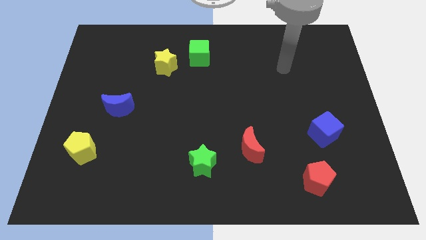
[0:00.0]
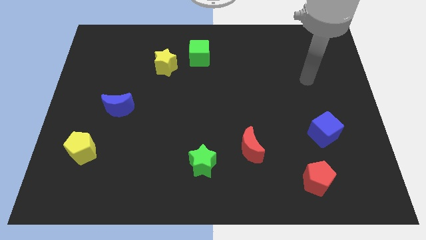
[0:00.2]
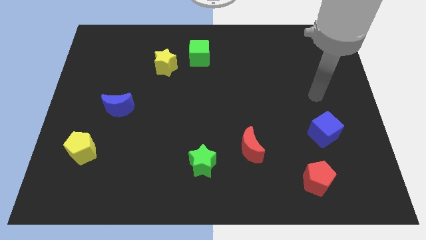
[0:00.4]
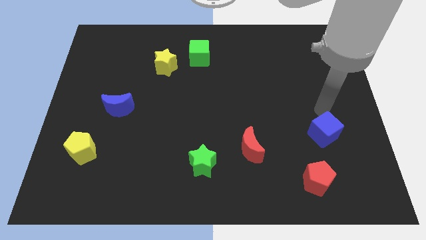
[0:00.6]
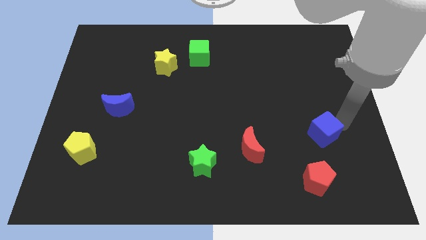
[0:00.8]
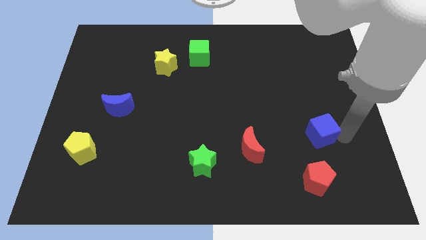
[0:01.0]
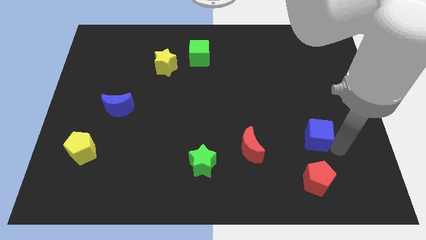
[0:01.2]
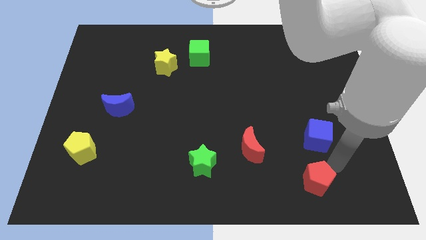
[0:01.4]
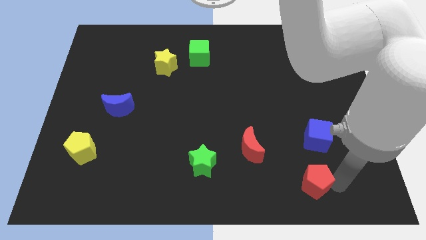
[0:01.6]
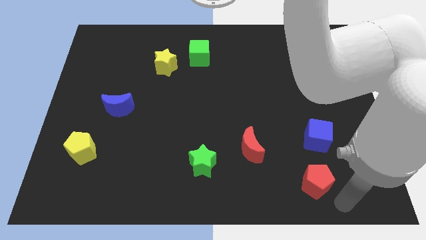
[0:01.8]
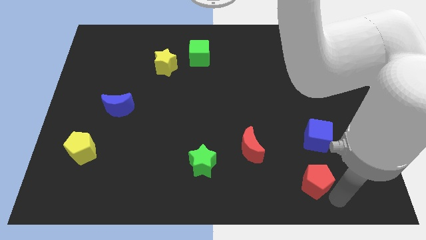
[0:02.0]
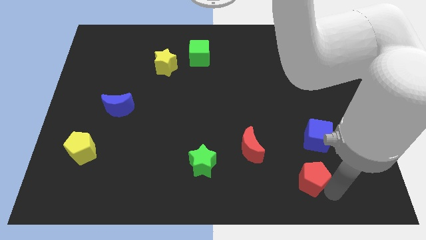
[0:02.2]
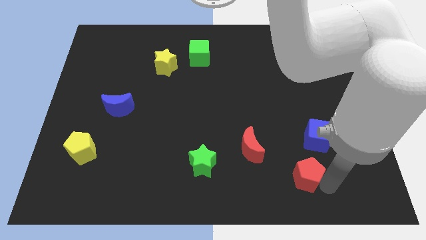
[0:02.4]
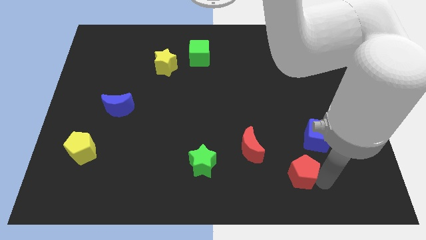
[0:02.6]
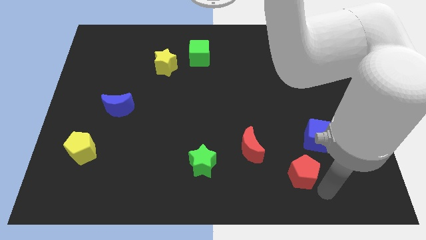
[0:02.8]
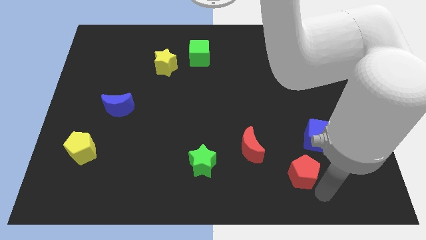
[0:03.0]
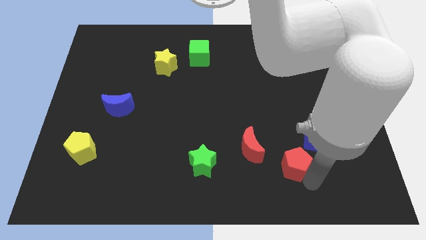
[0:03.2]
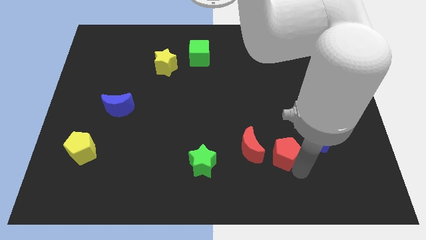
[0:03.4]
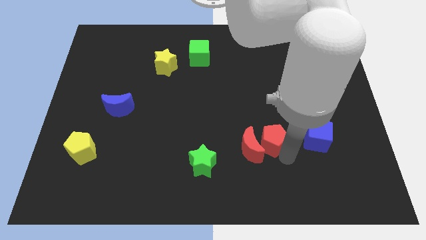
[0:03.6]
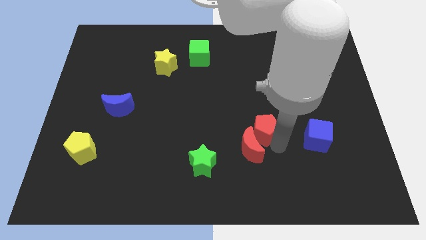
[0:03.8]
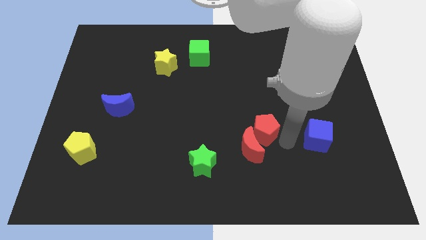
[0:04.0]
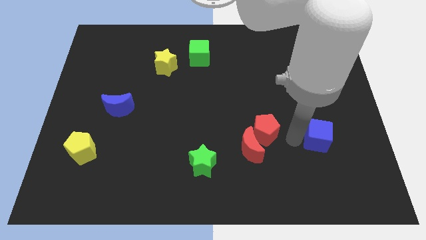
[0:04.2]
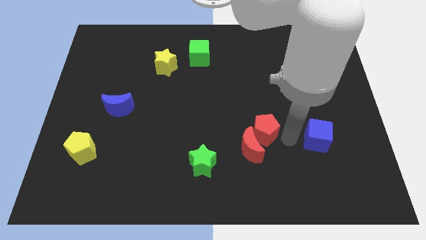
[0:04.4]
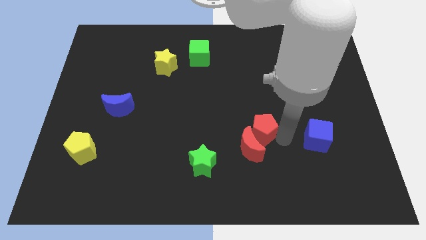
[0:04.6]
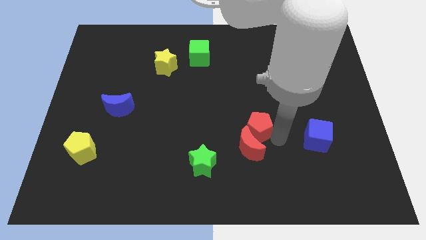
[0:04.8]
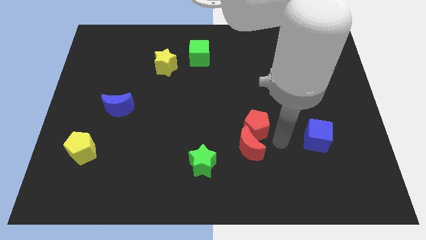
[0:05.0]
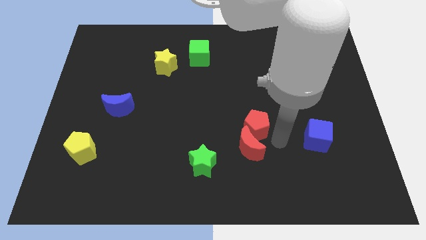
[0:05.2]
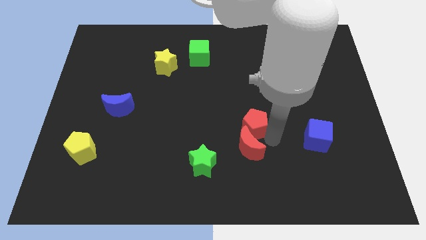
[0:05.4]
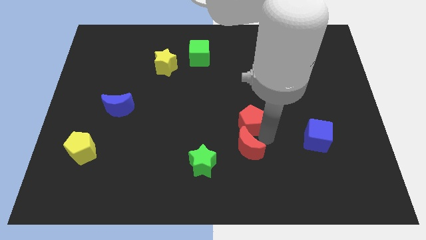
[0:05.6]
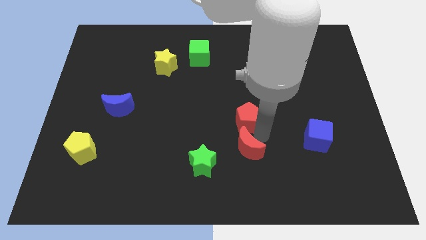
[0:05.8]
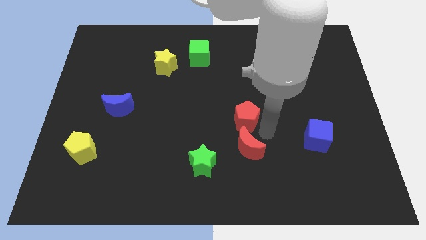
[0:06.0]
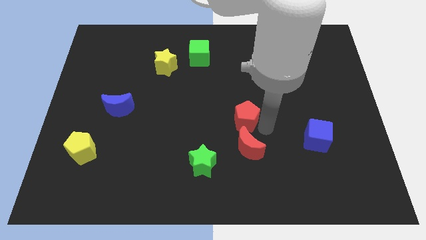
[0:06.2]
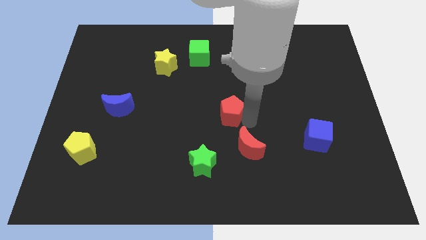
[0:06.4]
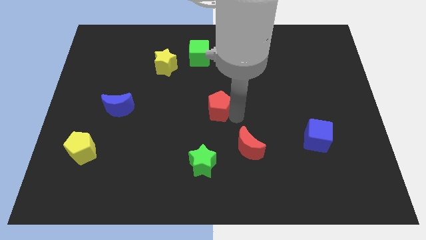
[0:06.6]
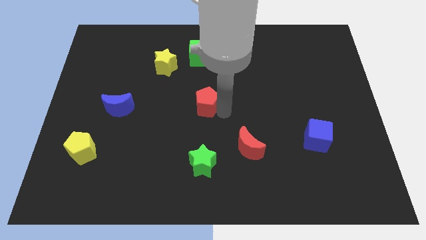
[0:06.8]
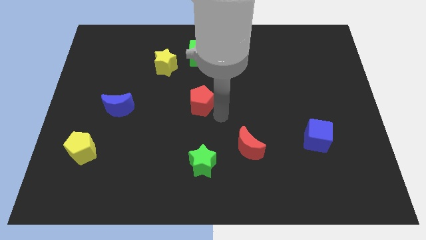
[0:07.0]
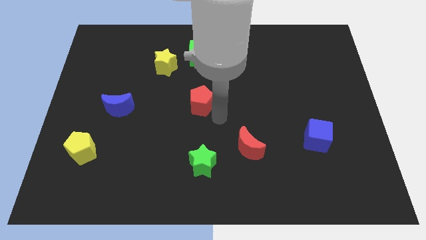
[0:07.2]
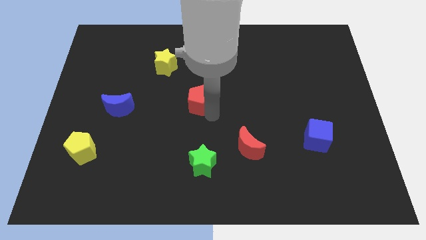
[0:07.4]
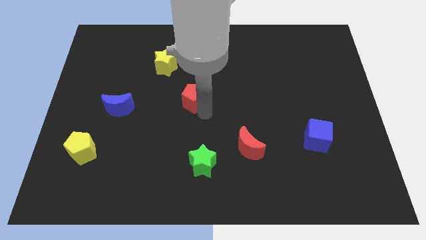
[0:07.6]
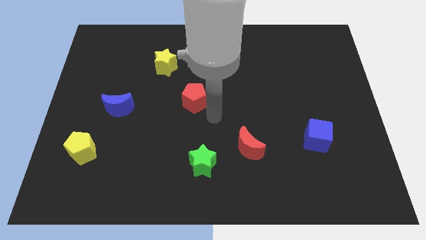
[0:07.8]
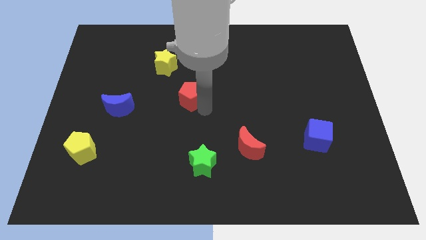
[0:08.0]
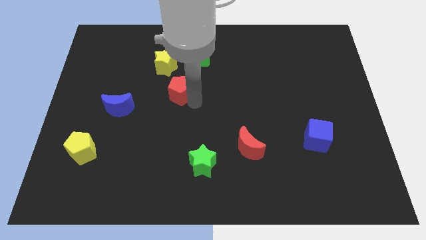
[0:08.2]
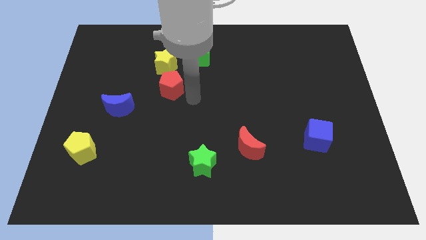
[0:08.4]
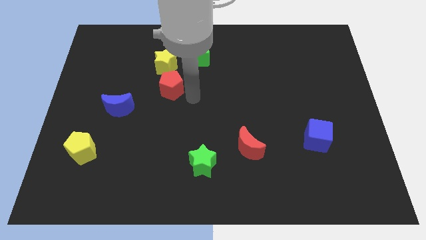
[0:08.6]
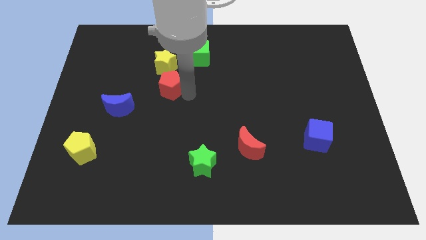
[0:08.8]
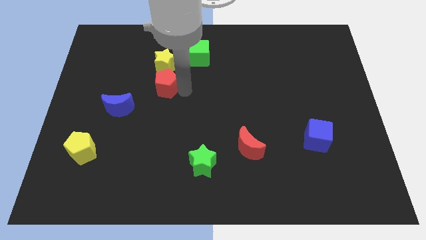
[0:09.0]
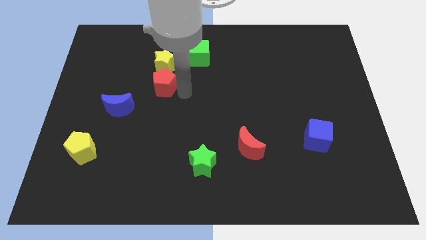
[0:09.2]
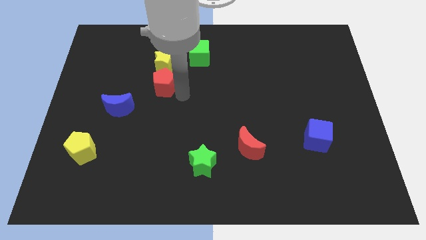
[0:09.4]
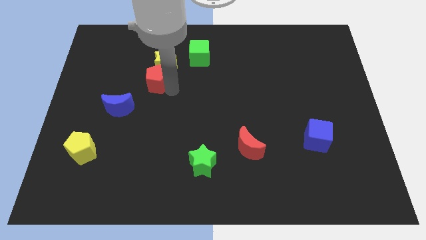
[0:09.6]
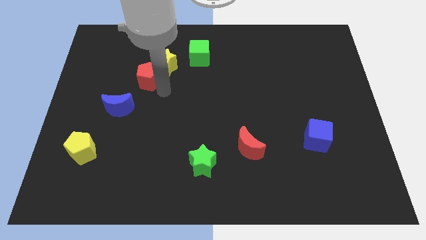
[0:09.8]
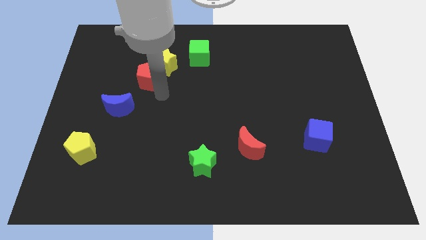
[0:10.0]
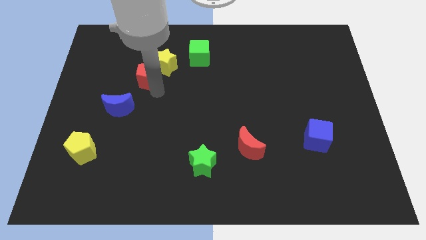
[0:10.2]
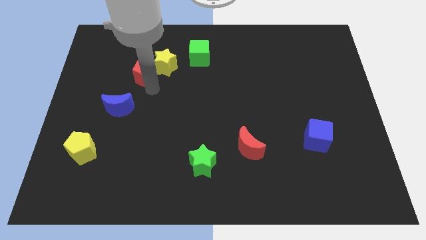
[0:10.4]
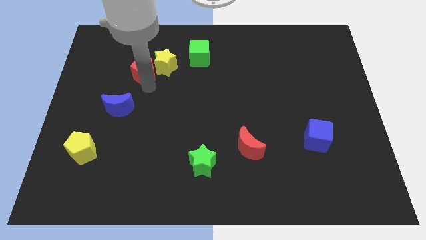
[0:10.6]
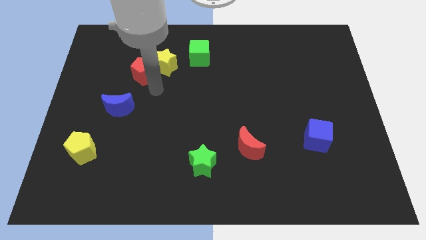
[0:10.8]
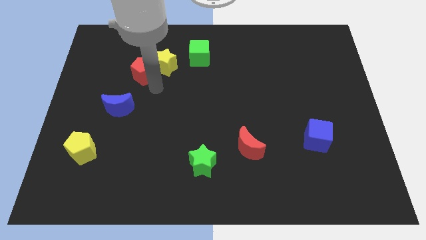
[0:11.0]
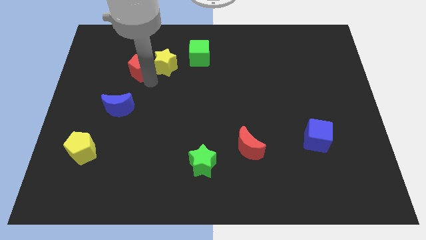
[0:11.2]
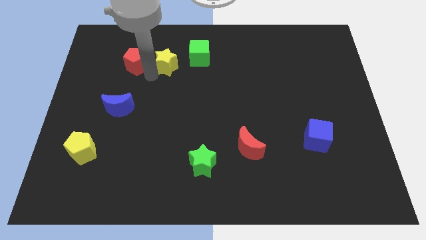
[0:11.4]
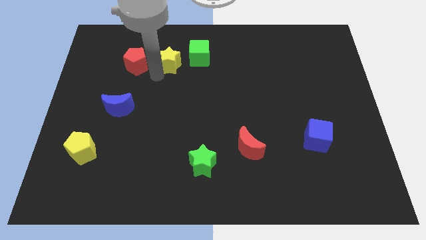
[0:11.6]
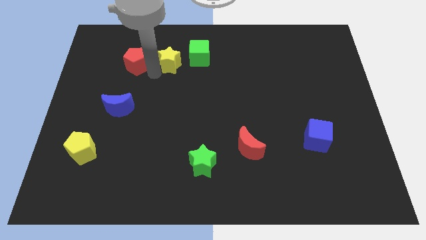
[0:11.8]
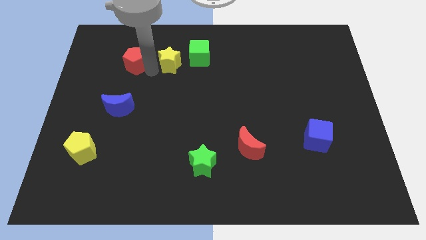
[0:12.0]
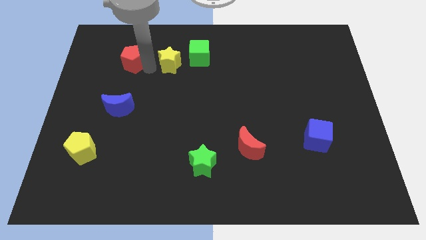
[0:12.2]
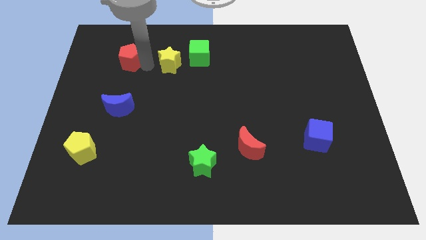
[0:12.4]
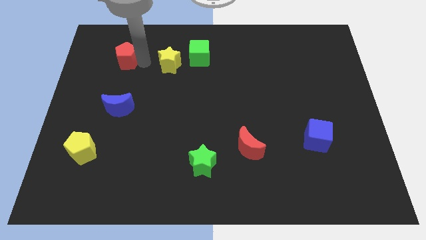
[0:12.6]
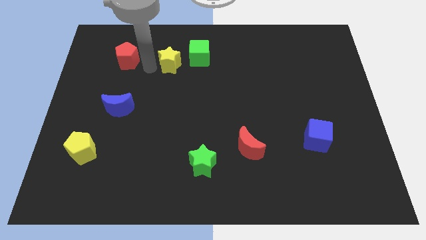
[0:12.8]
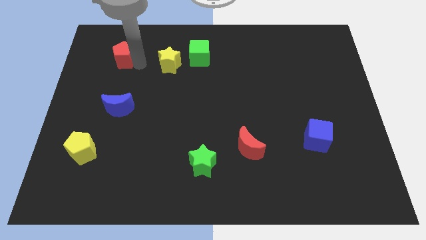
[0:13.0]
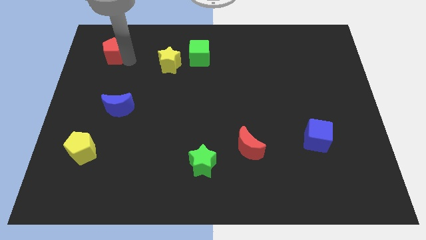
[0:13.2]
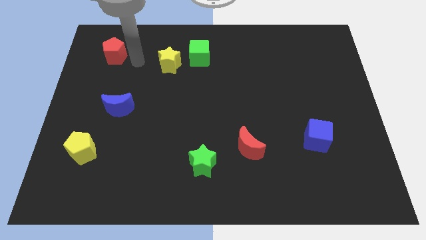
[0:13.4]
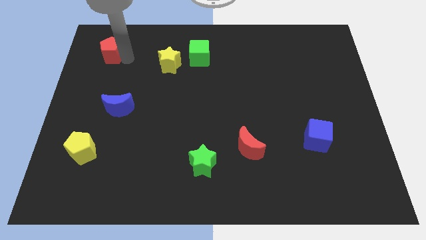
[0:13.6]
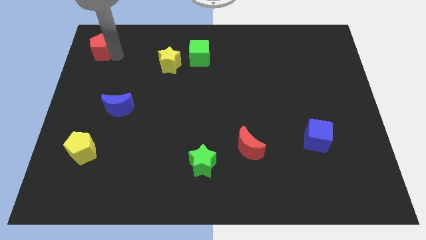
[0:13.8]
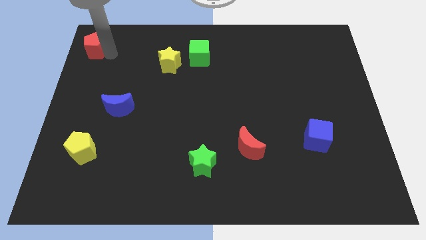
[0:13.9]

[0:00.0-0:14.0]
move the red pentagon to the upper left corner
